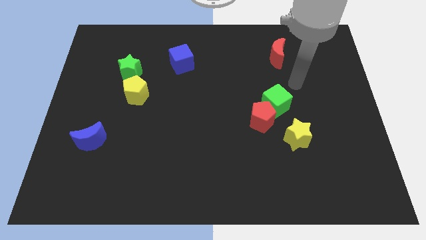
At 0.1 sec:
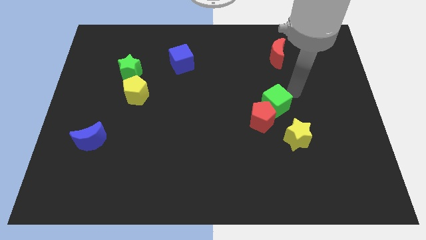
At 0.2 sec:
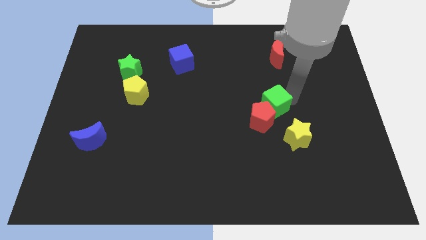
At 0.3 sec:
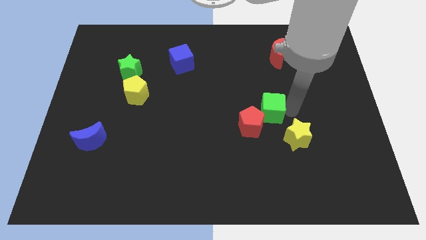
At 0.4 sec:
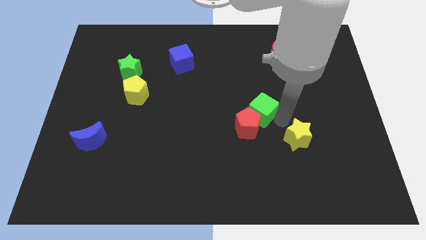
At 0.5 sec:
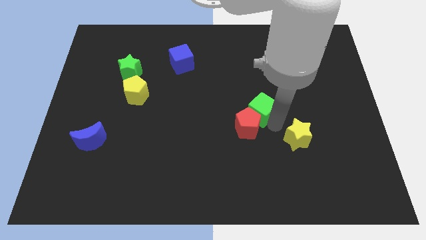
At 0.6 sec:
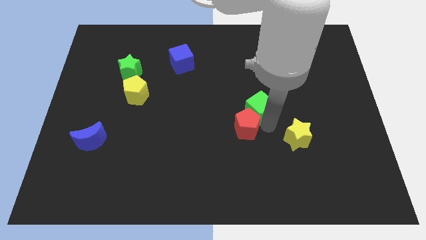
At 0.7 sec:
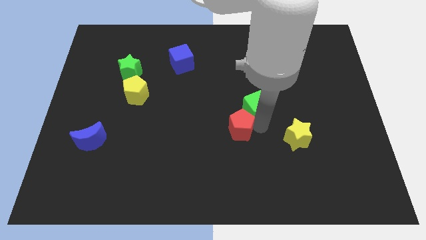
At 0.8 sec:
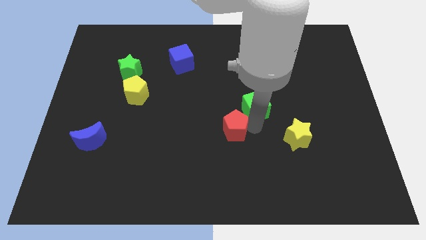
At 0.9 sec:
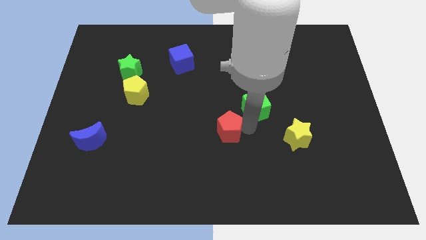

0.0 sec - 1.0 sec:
move the red pentagon away from the green cube and yellow star

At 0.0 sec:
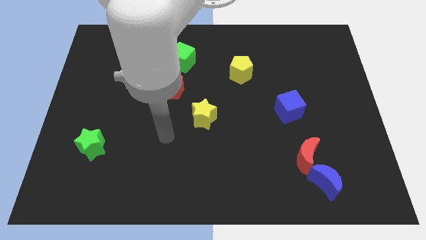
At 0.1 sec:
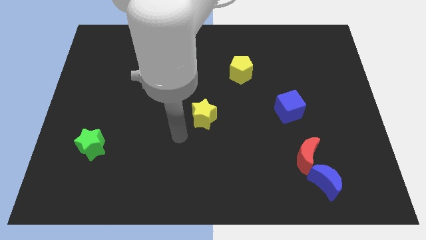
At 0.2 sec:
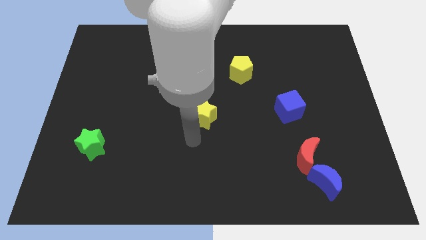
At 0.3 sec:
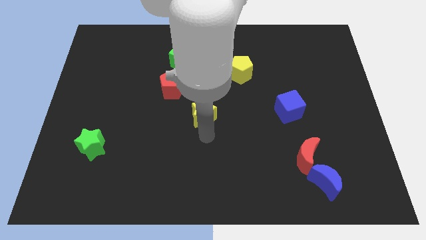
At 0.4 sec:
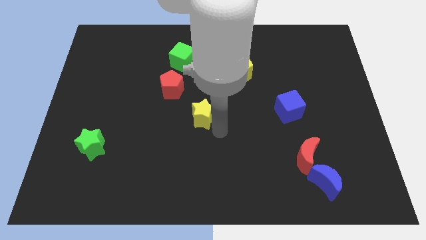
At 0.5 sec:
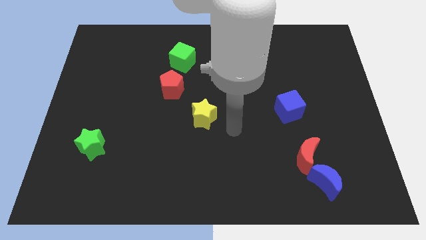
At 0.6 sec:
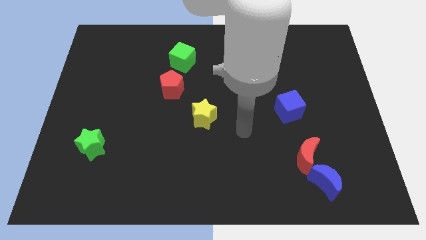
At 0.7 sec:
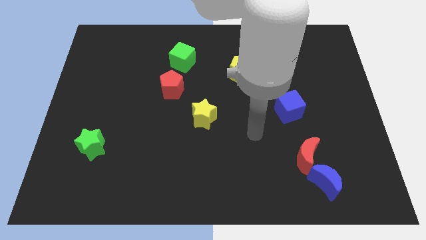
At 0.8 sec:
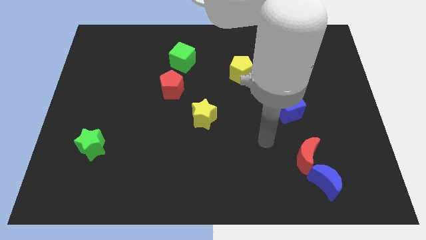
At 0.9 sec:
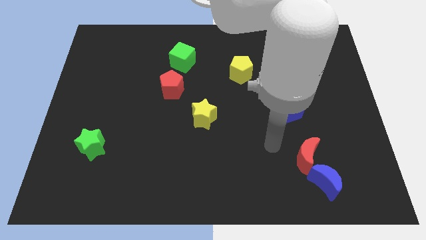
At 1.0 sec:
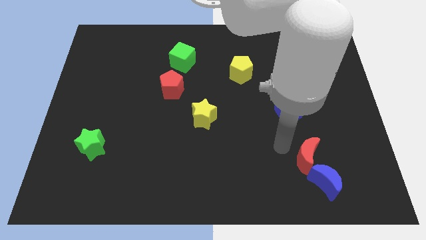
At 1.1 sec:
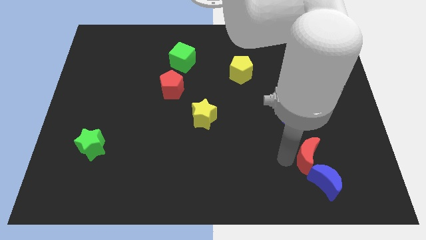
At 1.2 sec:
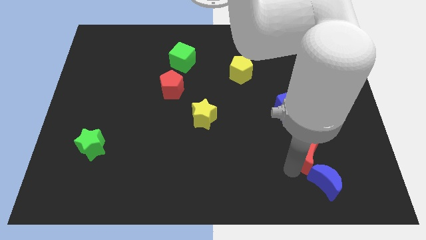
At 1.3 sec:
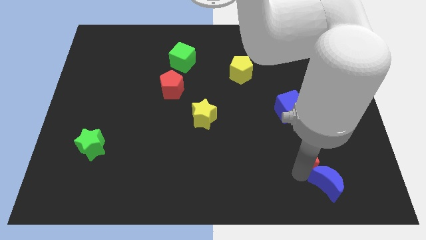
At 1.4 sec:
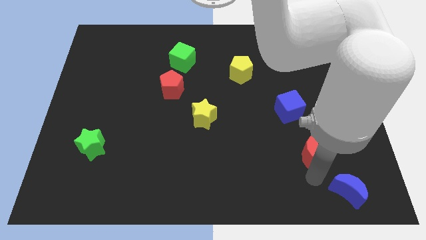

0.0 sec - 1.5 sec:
pull the red moon apart from the blue moon

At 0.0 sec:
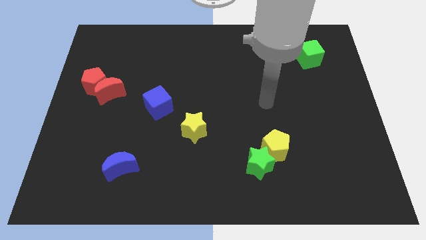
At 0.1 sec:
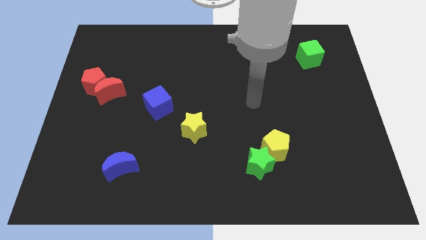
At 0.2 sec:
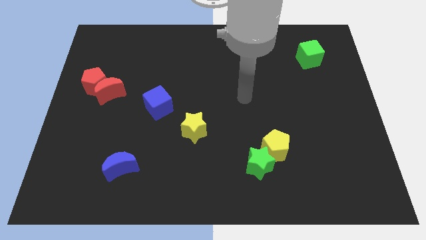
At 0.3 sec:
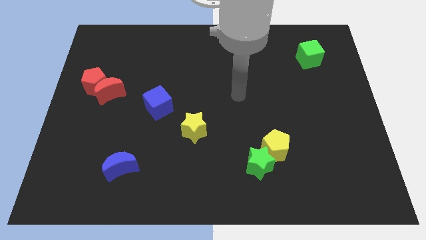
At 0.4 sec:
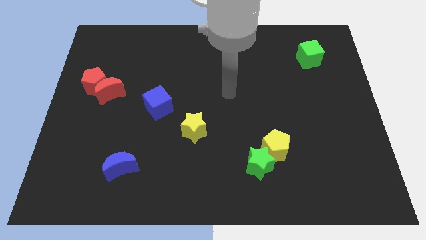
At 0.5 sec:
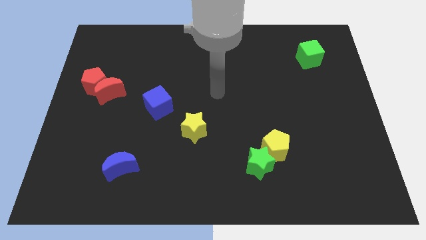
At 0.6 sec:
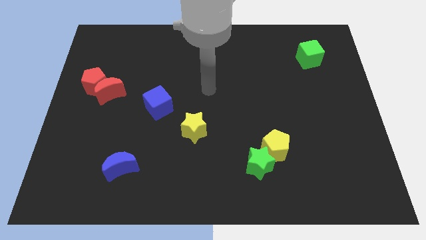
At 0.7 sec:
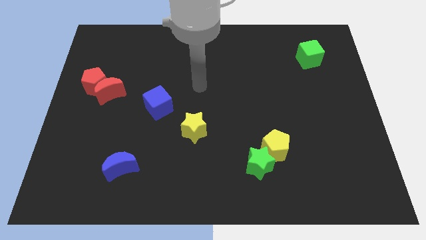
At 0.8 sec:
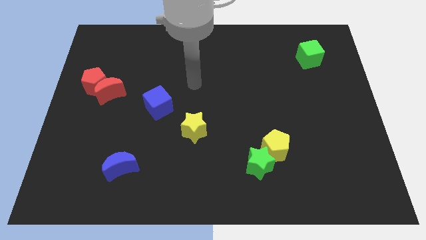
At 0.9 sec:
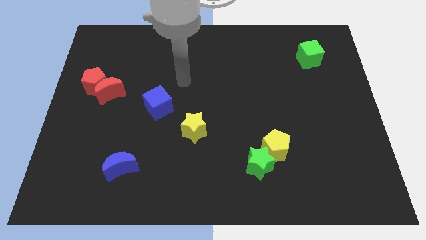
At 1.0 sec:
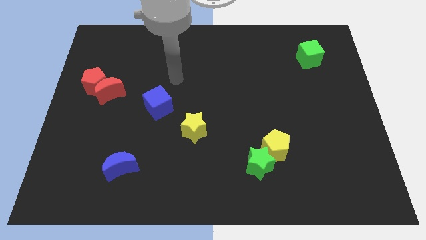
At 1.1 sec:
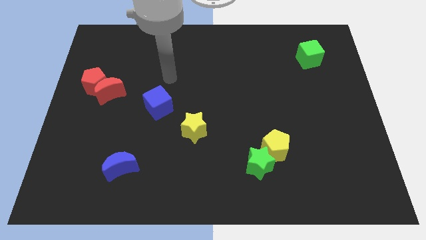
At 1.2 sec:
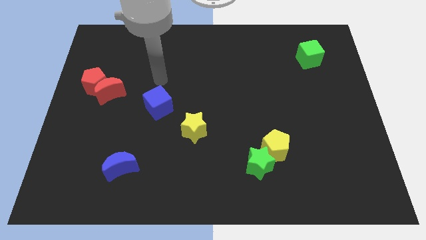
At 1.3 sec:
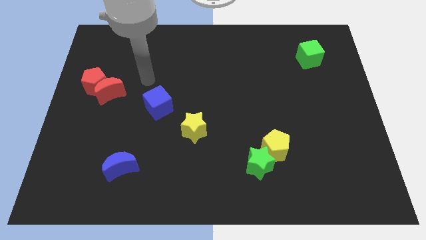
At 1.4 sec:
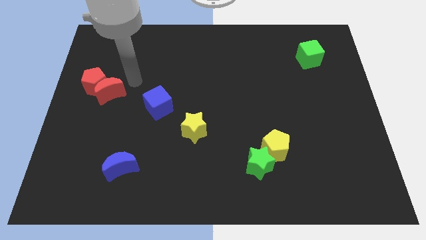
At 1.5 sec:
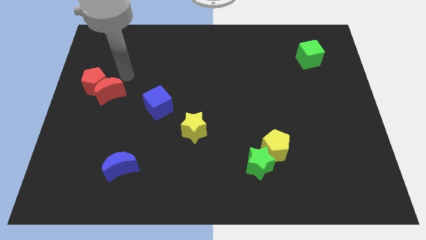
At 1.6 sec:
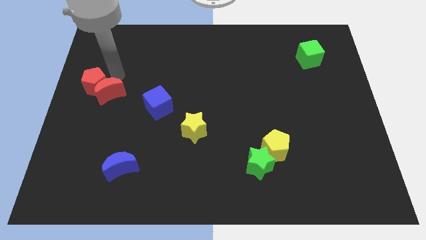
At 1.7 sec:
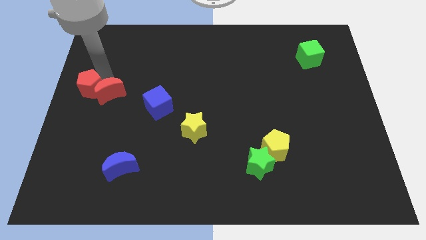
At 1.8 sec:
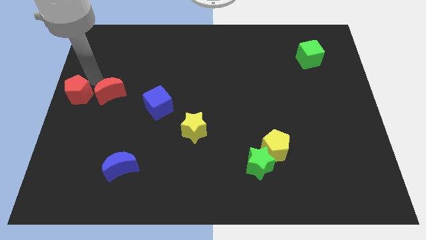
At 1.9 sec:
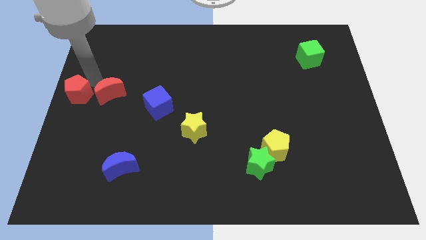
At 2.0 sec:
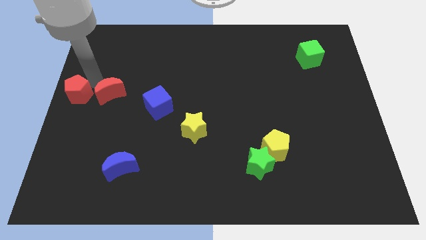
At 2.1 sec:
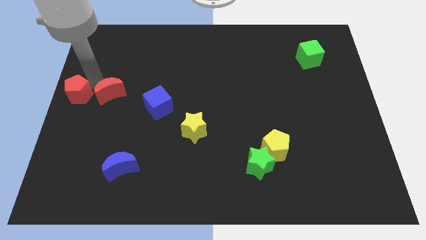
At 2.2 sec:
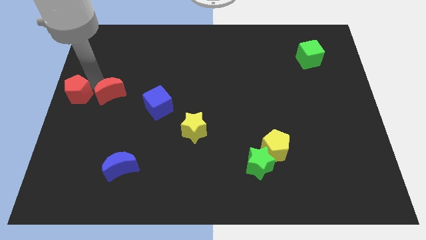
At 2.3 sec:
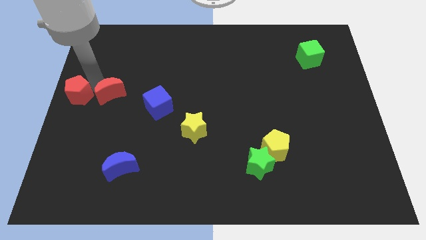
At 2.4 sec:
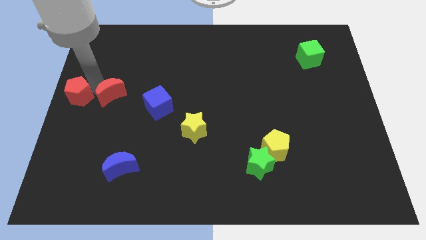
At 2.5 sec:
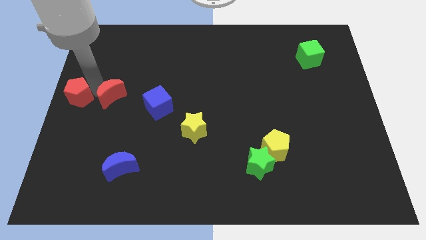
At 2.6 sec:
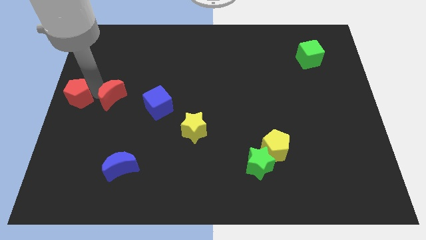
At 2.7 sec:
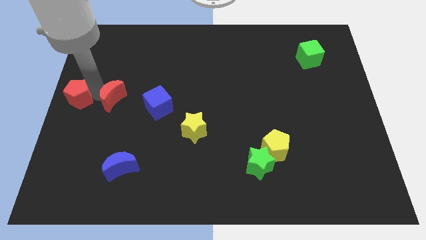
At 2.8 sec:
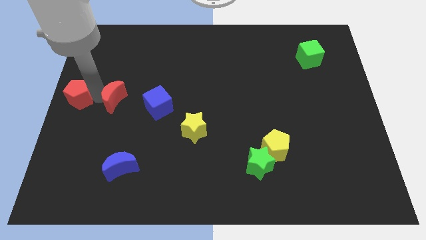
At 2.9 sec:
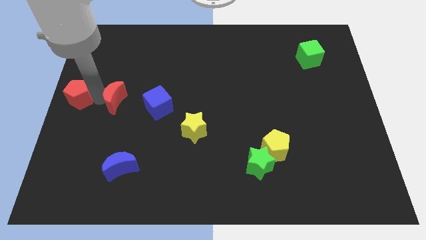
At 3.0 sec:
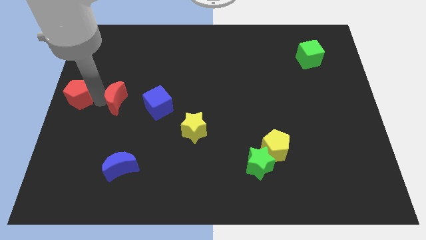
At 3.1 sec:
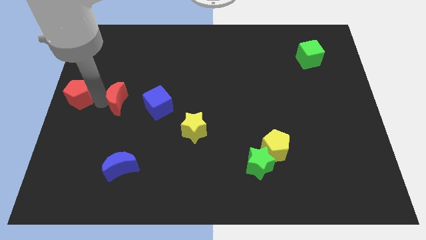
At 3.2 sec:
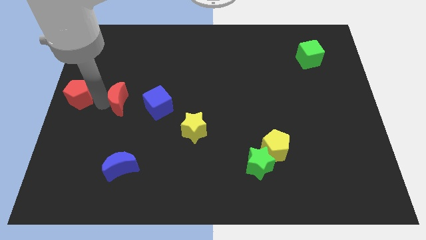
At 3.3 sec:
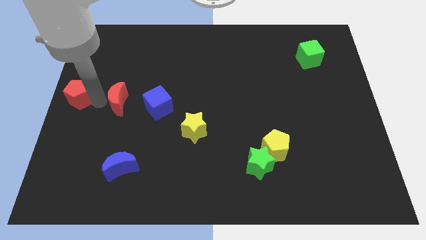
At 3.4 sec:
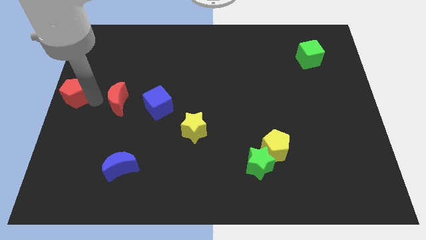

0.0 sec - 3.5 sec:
separate the red moon from the red pentagon

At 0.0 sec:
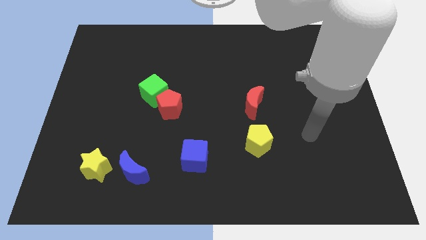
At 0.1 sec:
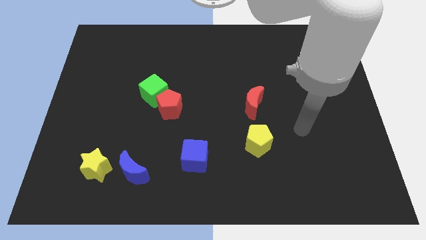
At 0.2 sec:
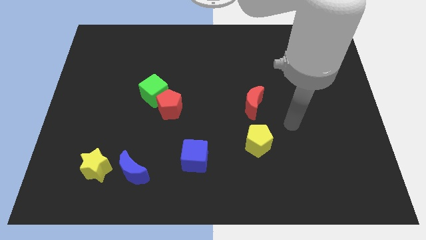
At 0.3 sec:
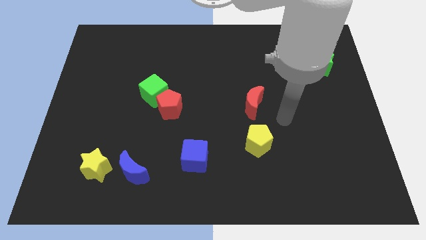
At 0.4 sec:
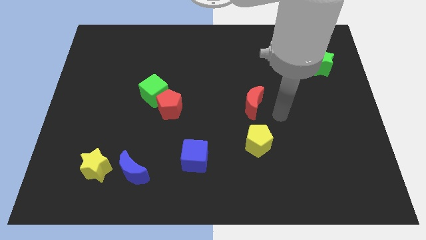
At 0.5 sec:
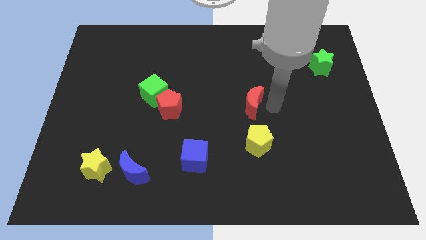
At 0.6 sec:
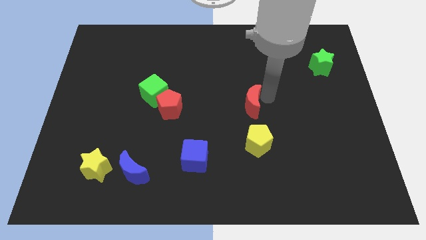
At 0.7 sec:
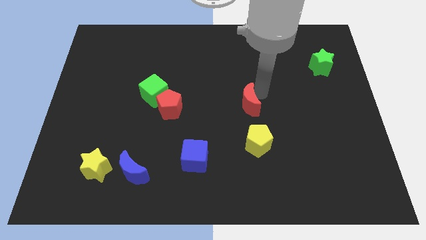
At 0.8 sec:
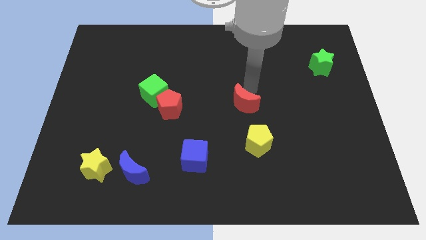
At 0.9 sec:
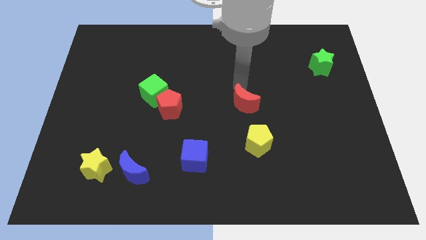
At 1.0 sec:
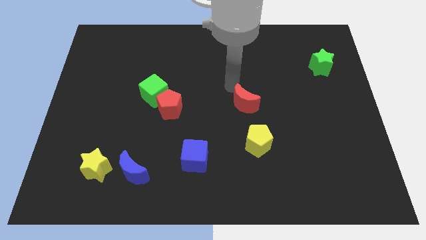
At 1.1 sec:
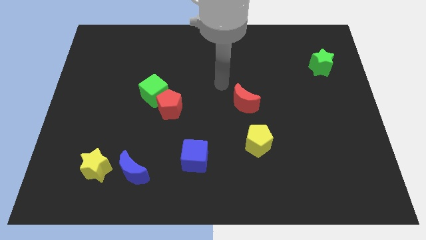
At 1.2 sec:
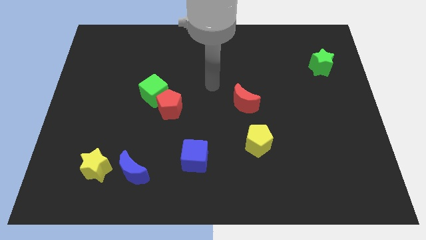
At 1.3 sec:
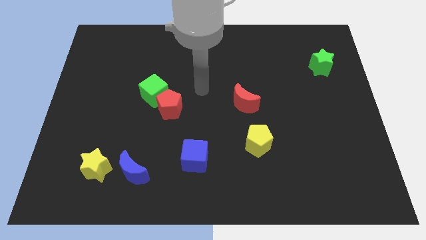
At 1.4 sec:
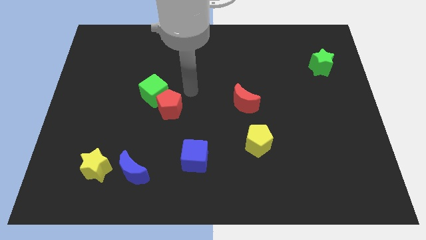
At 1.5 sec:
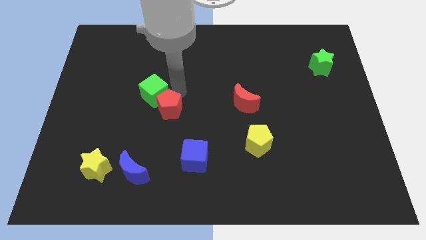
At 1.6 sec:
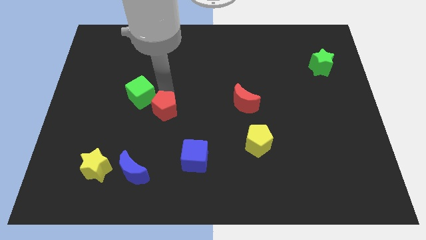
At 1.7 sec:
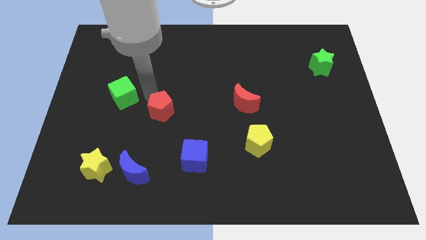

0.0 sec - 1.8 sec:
separate the red pentagon from the green cube

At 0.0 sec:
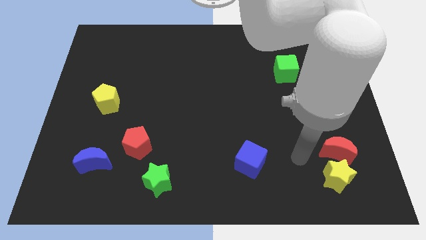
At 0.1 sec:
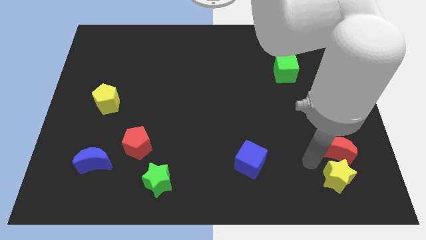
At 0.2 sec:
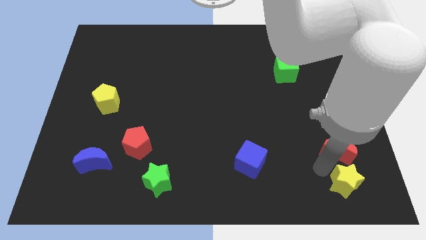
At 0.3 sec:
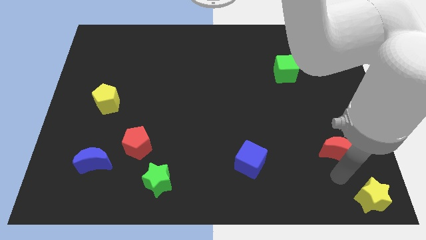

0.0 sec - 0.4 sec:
move the red moon away from the yellow star

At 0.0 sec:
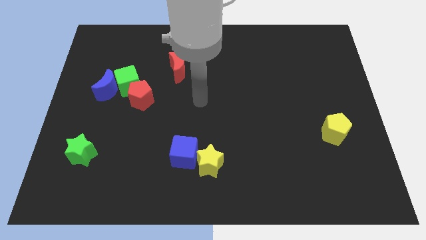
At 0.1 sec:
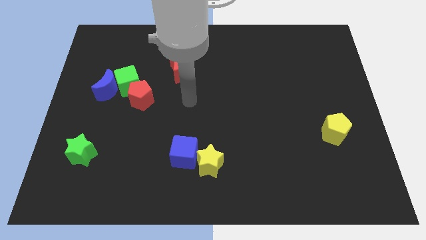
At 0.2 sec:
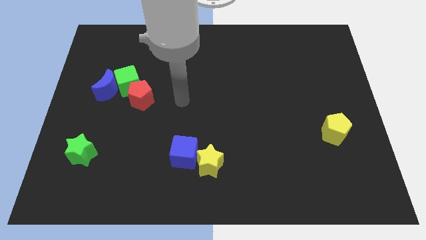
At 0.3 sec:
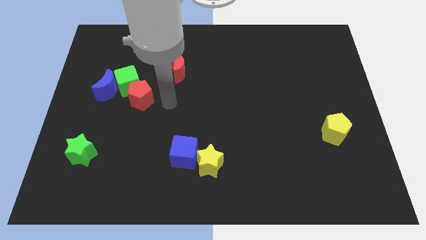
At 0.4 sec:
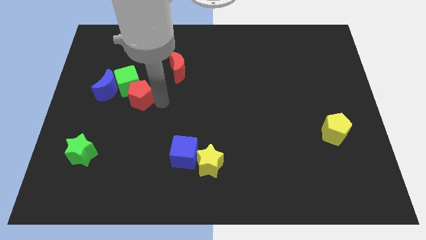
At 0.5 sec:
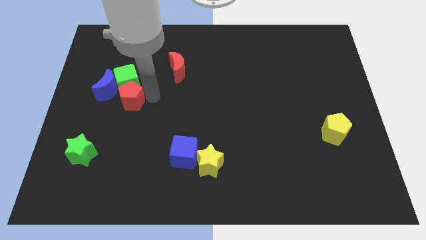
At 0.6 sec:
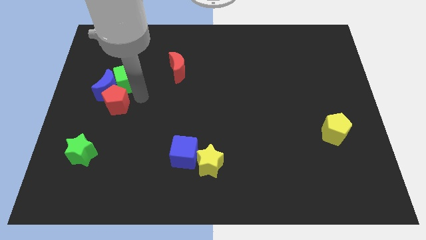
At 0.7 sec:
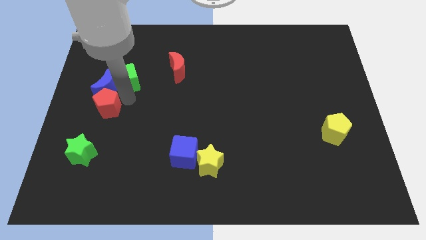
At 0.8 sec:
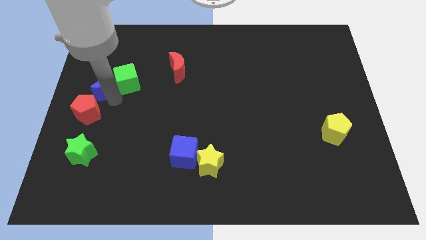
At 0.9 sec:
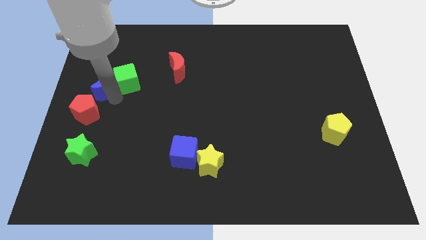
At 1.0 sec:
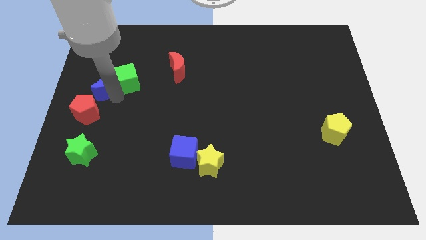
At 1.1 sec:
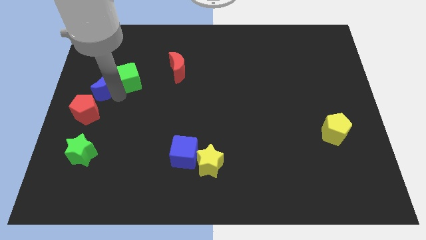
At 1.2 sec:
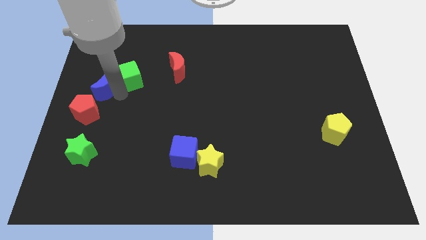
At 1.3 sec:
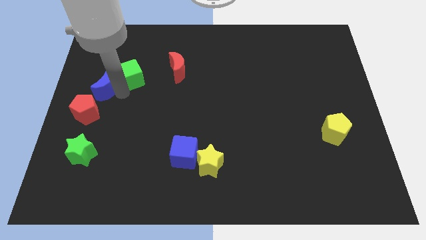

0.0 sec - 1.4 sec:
pull the green cube apart from the blue moon and red pentagon
